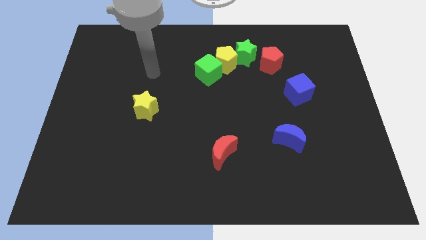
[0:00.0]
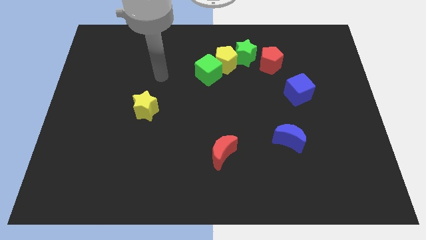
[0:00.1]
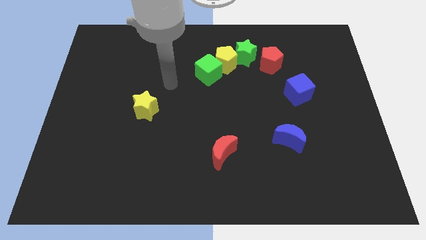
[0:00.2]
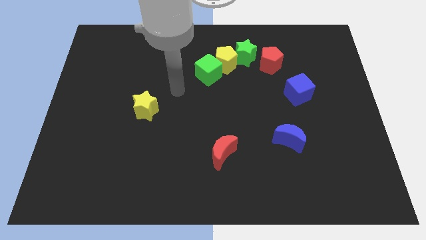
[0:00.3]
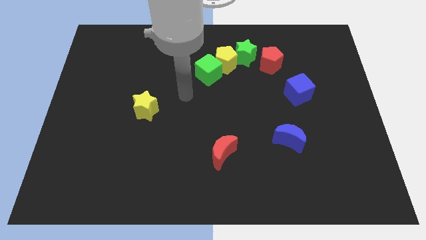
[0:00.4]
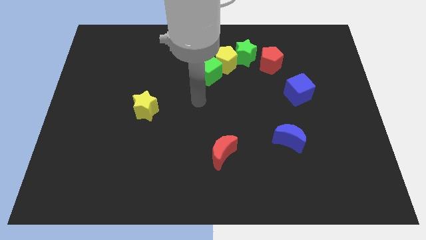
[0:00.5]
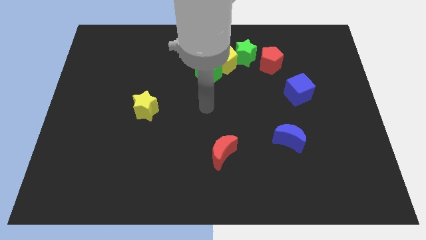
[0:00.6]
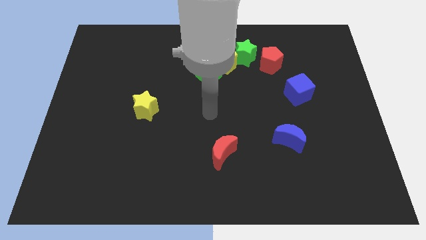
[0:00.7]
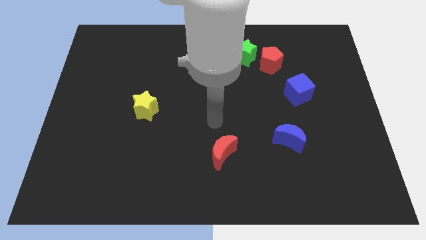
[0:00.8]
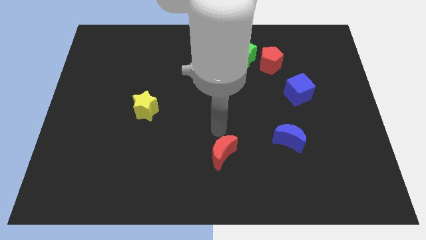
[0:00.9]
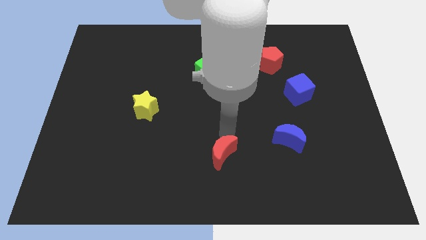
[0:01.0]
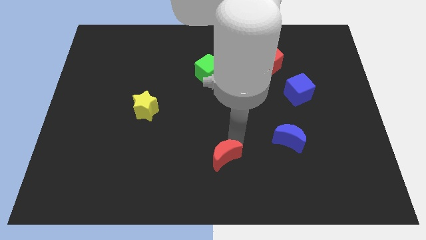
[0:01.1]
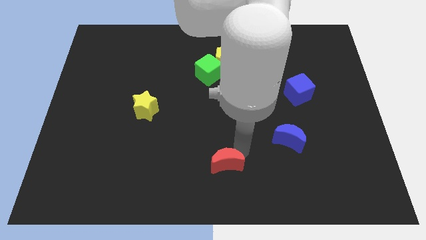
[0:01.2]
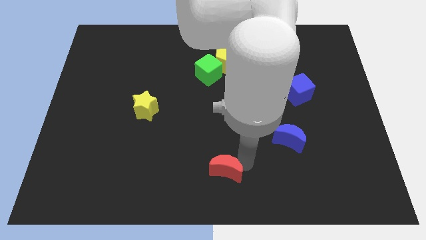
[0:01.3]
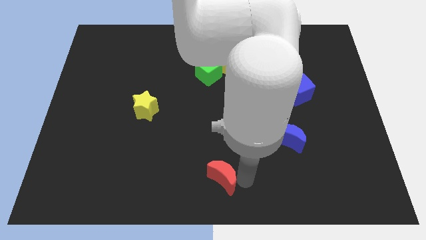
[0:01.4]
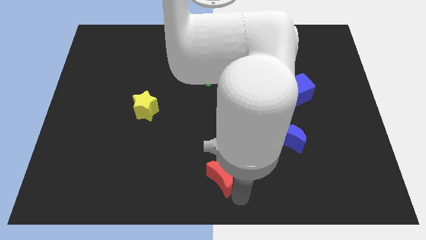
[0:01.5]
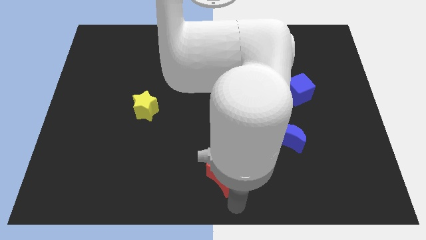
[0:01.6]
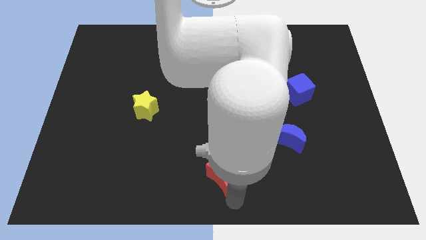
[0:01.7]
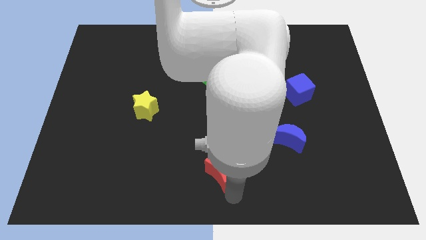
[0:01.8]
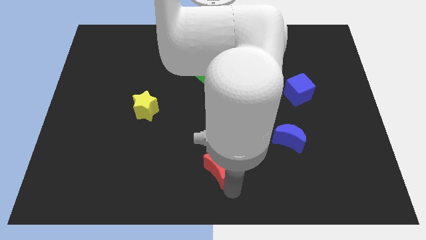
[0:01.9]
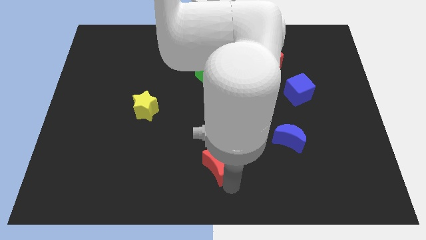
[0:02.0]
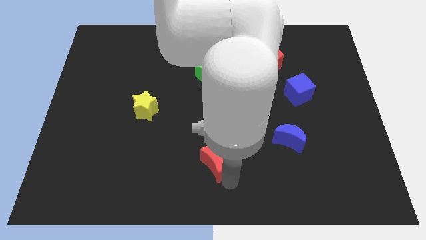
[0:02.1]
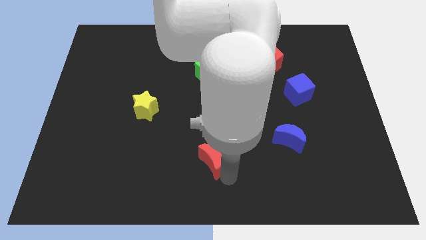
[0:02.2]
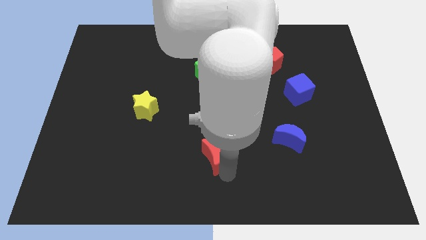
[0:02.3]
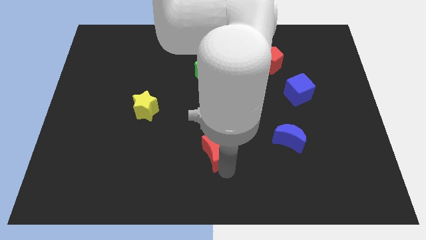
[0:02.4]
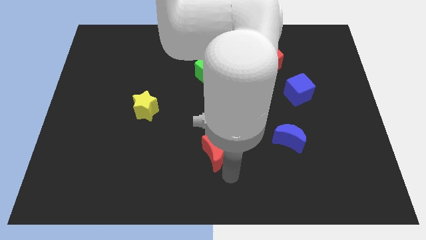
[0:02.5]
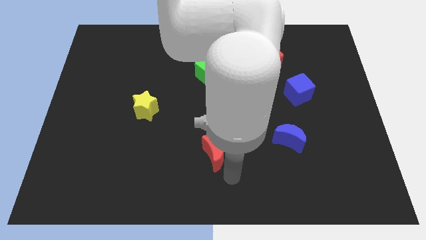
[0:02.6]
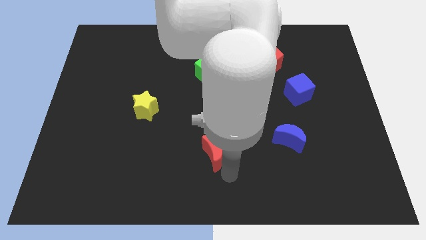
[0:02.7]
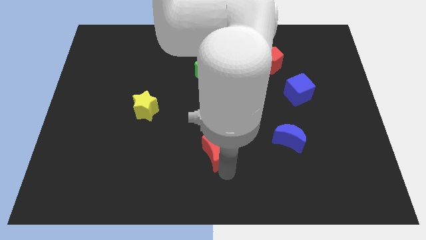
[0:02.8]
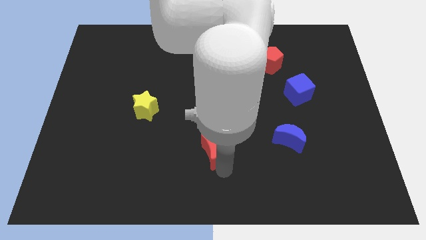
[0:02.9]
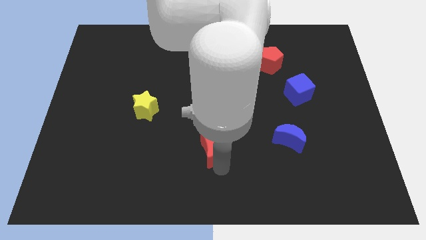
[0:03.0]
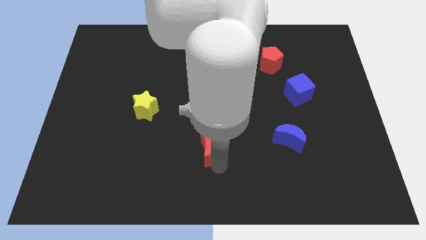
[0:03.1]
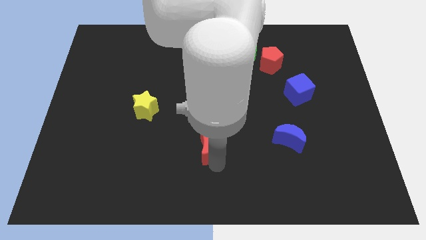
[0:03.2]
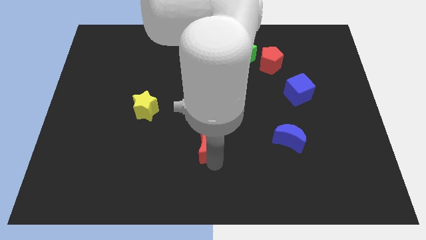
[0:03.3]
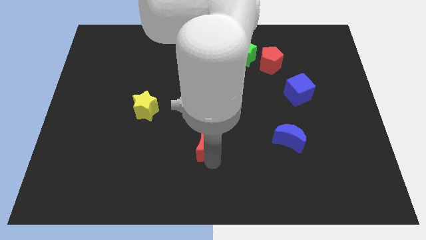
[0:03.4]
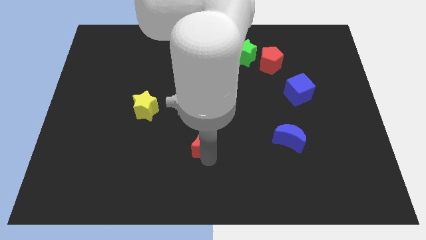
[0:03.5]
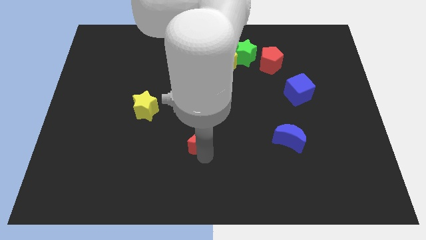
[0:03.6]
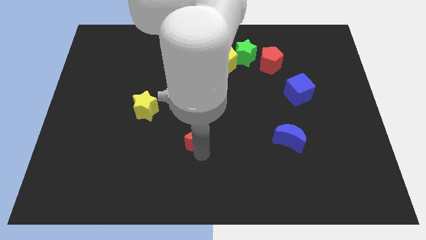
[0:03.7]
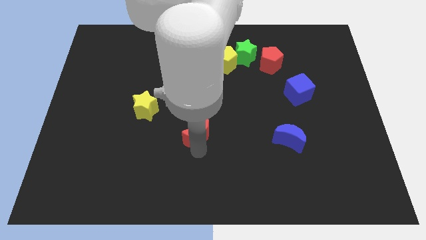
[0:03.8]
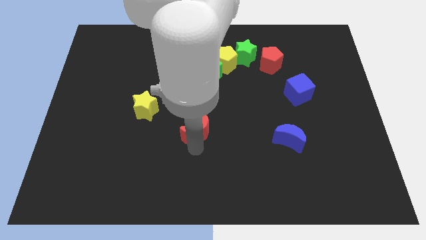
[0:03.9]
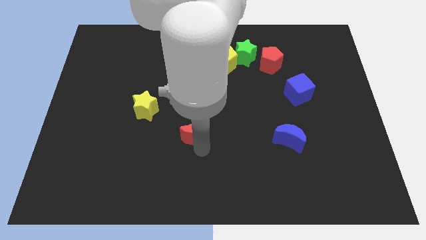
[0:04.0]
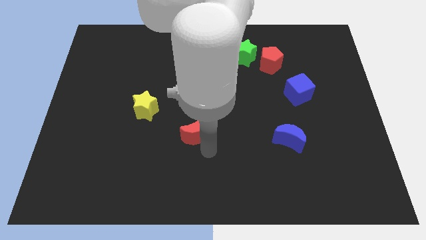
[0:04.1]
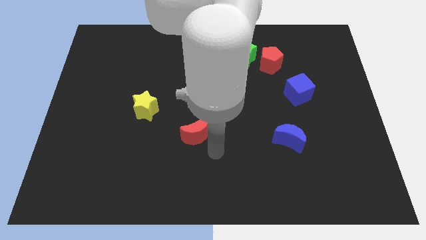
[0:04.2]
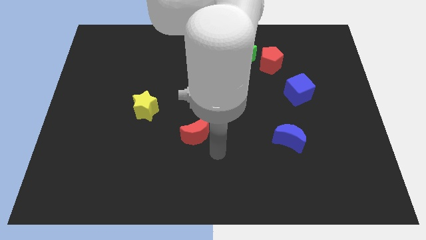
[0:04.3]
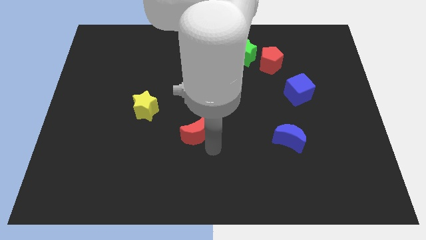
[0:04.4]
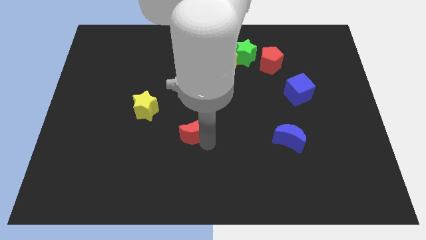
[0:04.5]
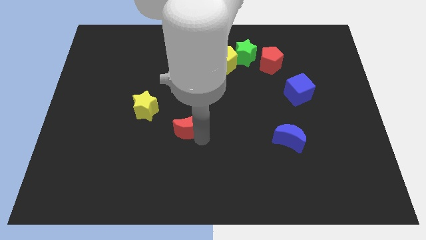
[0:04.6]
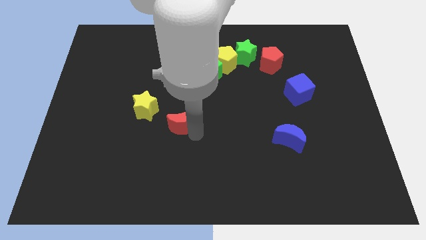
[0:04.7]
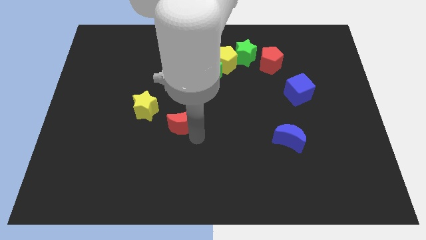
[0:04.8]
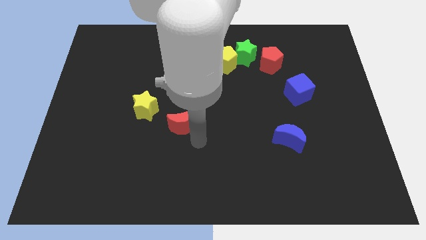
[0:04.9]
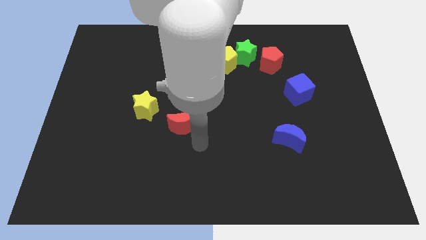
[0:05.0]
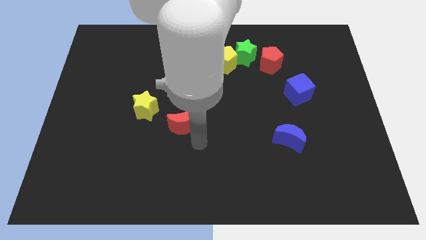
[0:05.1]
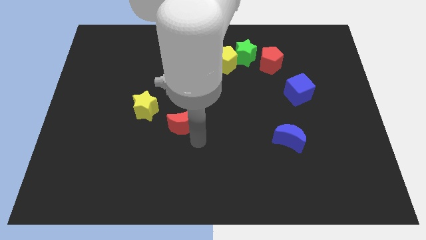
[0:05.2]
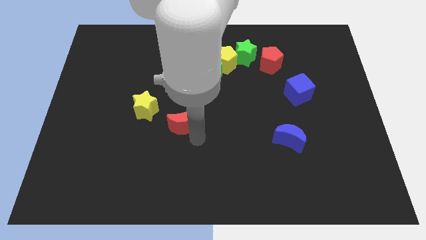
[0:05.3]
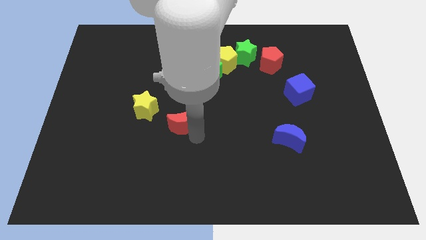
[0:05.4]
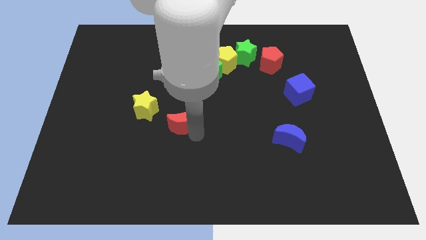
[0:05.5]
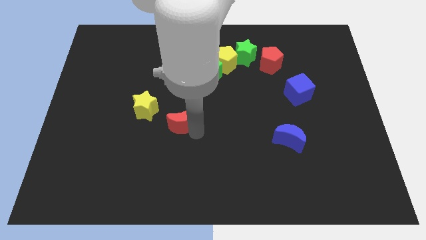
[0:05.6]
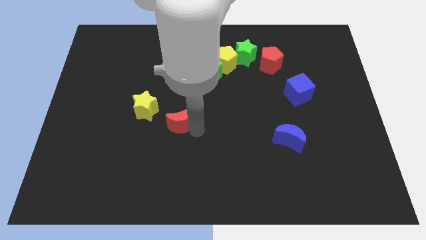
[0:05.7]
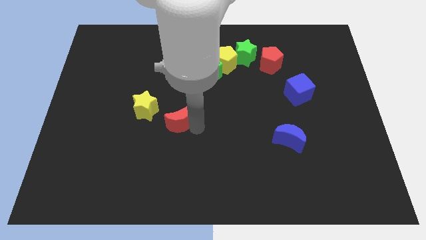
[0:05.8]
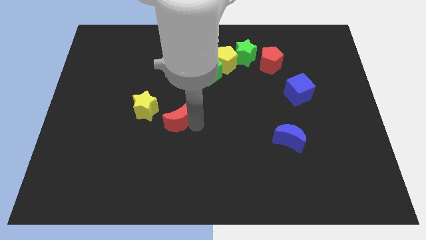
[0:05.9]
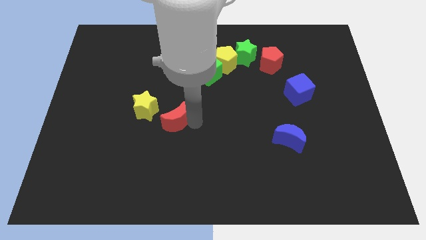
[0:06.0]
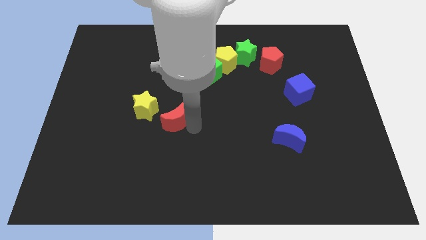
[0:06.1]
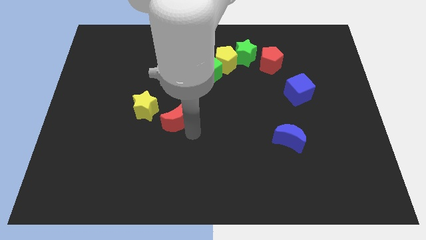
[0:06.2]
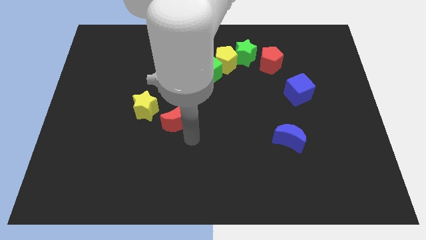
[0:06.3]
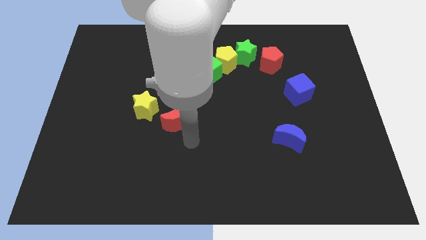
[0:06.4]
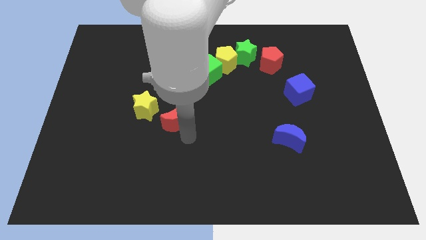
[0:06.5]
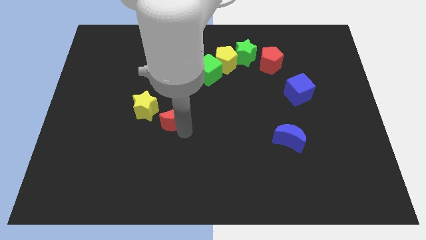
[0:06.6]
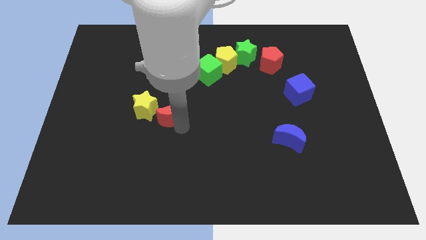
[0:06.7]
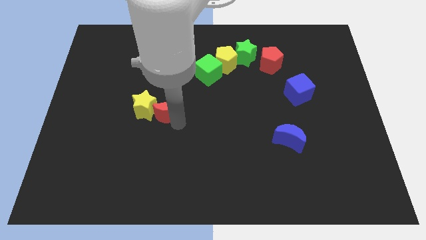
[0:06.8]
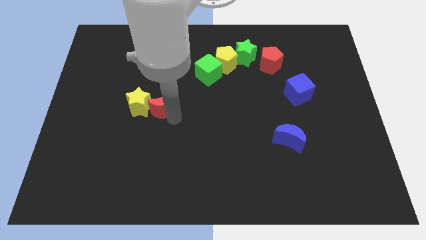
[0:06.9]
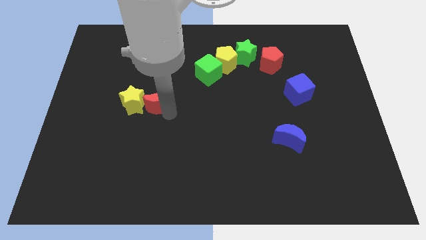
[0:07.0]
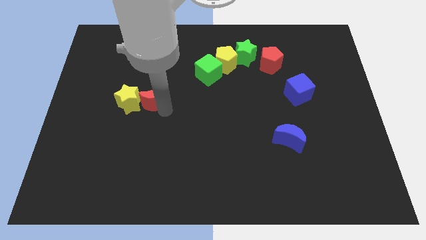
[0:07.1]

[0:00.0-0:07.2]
slide the red moon diagonally upwards and left

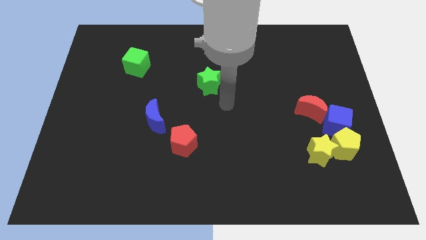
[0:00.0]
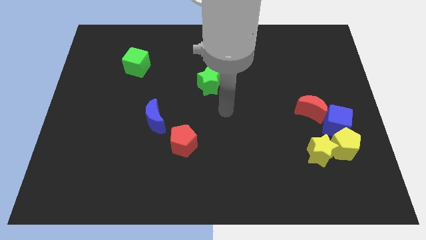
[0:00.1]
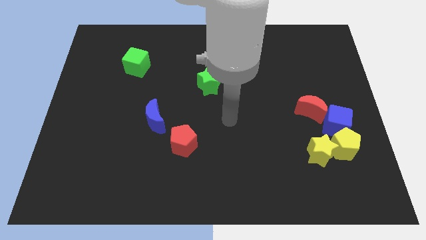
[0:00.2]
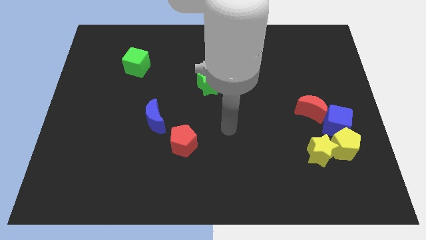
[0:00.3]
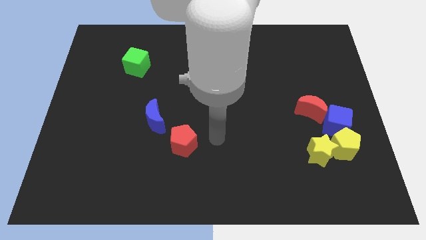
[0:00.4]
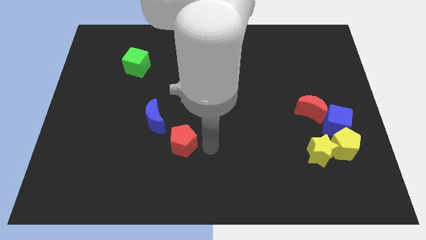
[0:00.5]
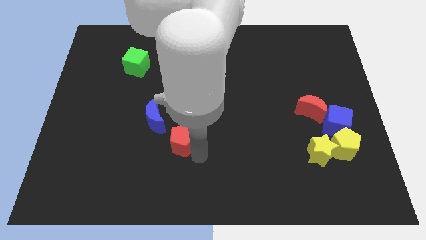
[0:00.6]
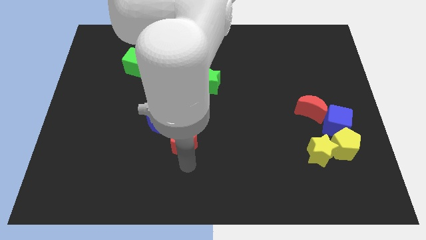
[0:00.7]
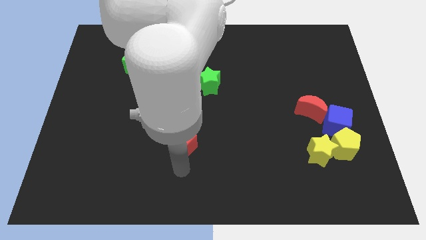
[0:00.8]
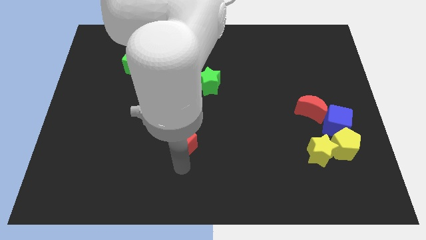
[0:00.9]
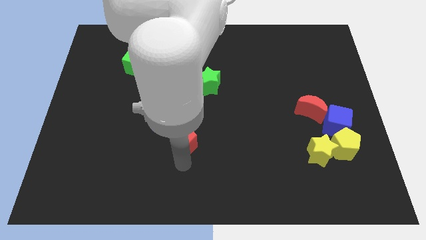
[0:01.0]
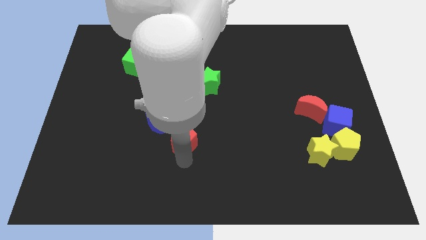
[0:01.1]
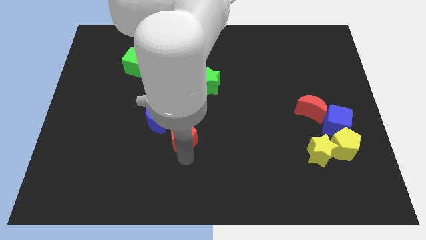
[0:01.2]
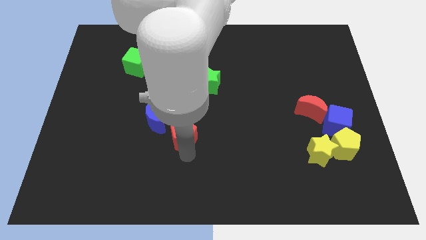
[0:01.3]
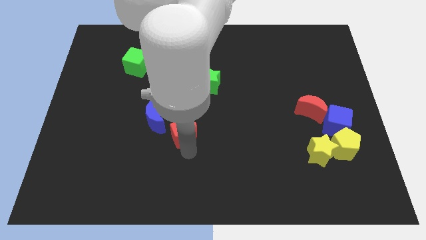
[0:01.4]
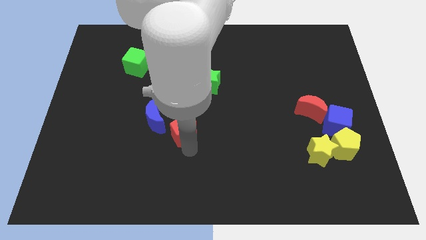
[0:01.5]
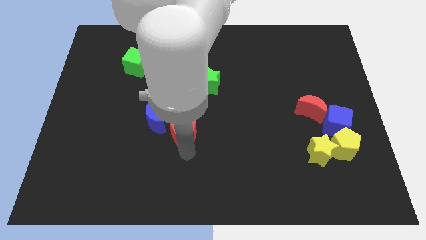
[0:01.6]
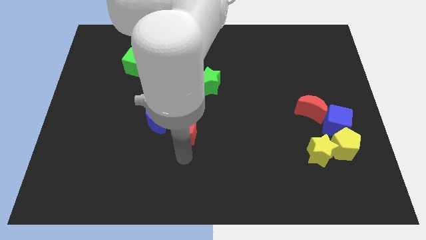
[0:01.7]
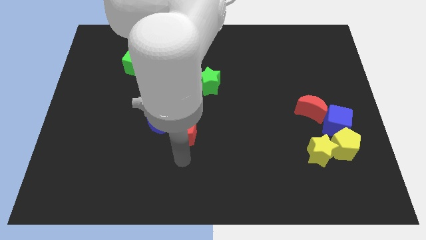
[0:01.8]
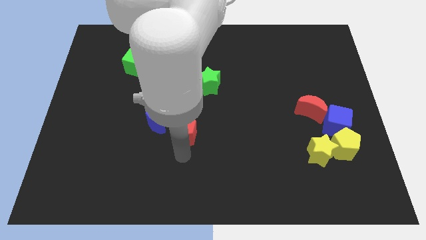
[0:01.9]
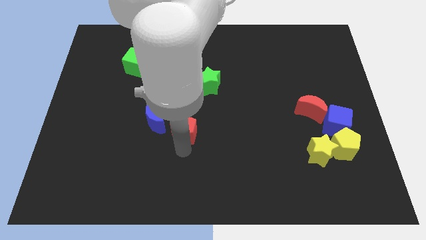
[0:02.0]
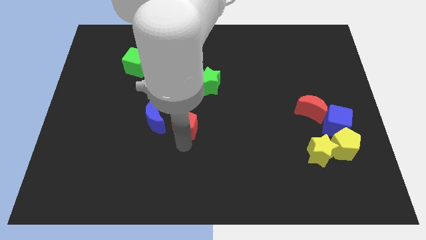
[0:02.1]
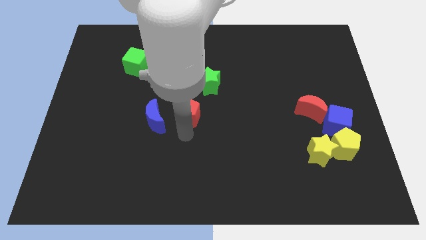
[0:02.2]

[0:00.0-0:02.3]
move the red pentagon a bit up
